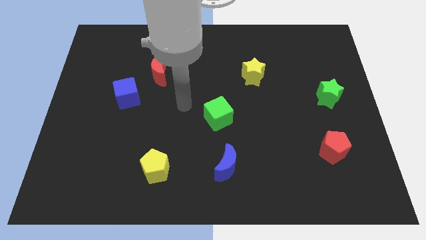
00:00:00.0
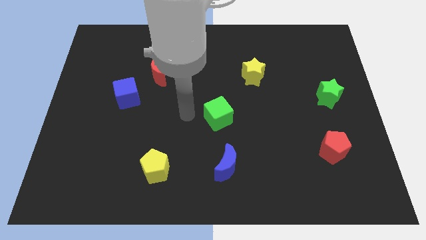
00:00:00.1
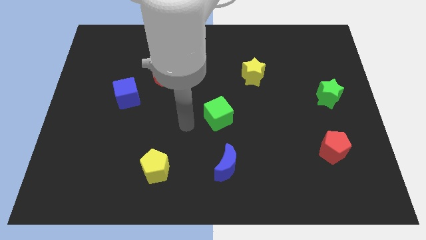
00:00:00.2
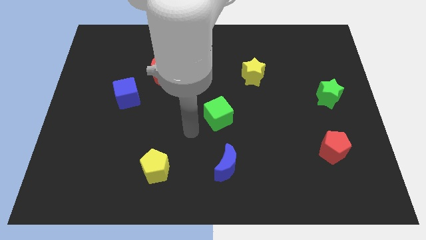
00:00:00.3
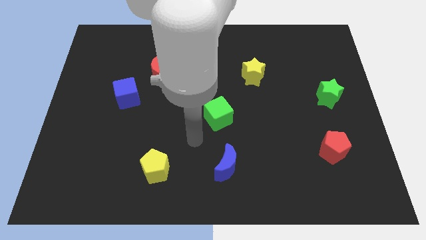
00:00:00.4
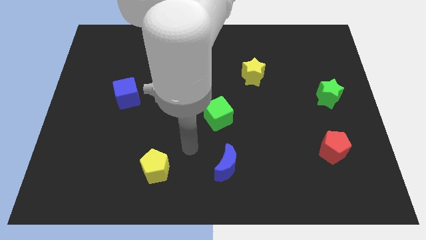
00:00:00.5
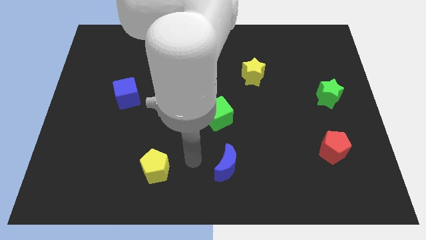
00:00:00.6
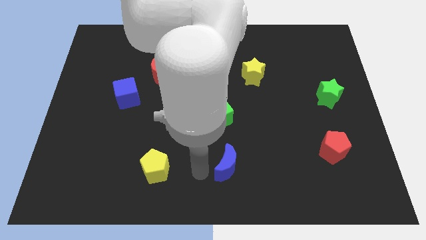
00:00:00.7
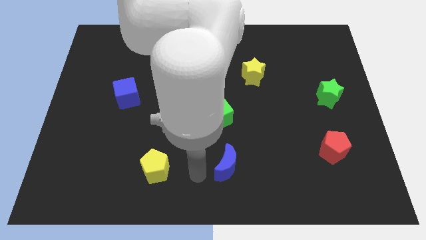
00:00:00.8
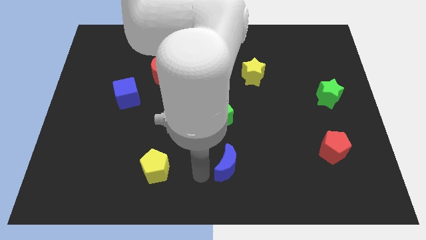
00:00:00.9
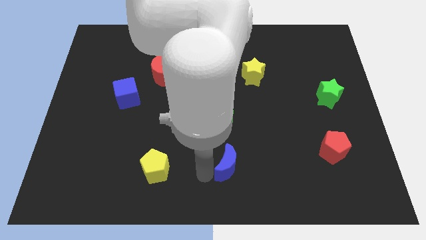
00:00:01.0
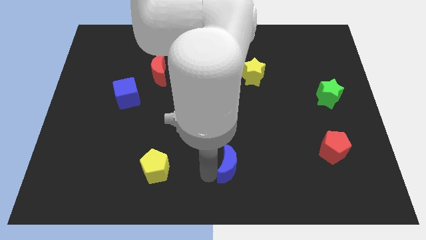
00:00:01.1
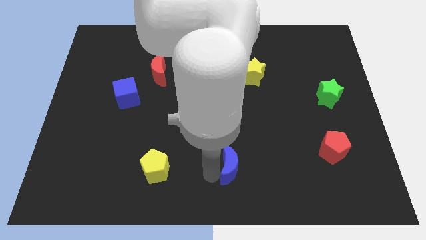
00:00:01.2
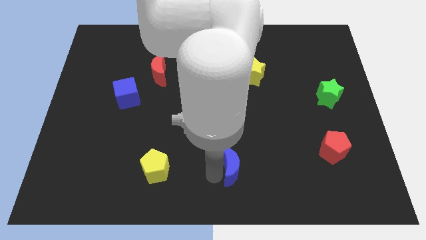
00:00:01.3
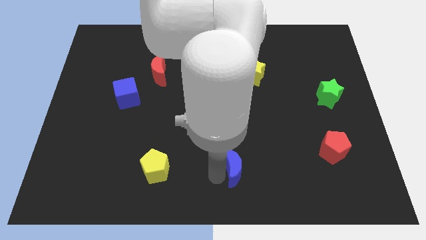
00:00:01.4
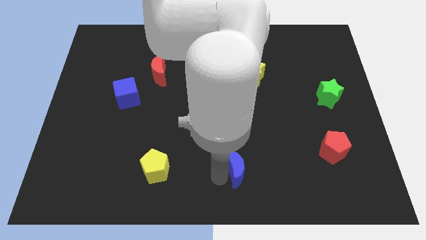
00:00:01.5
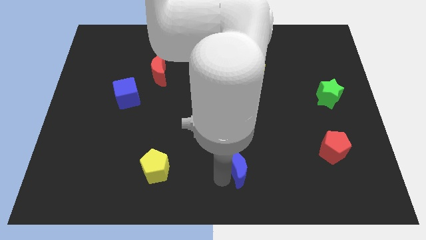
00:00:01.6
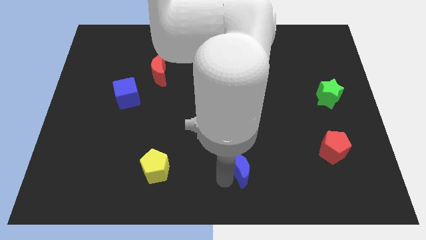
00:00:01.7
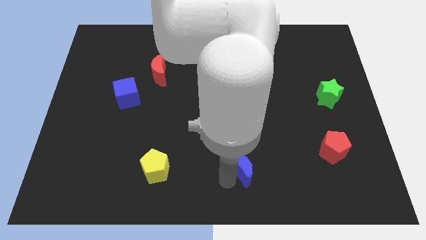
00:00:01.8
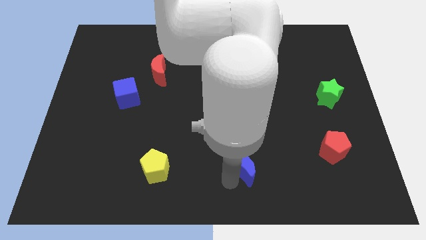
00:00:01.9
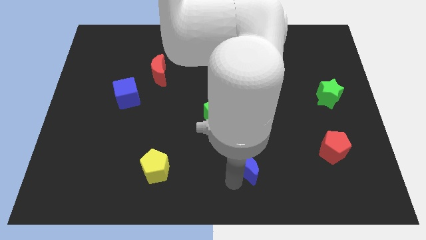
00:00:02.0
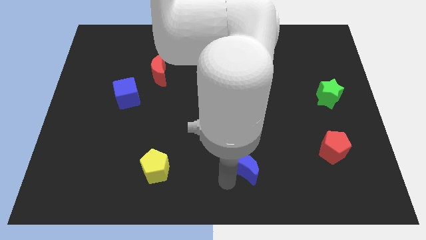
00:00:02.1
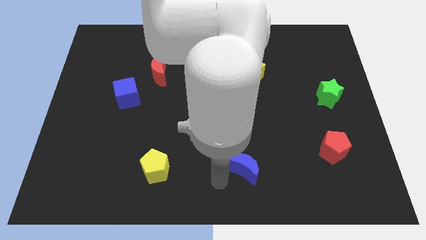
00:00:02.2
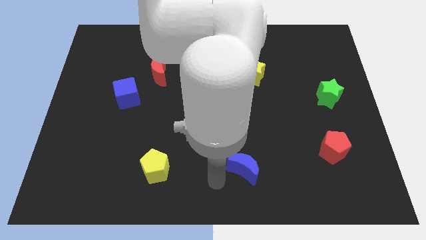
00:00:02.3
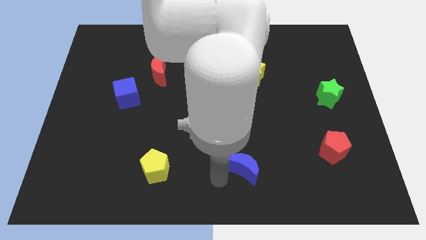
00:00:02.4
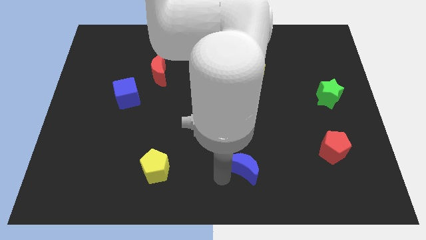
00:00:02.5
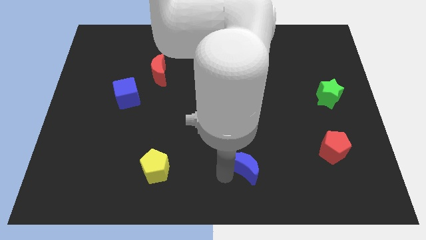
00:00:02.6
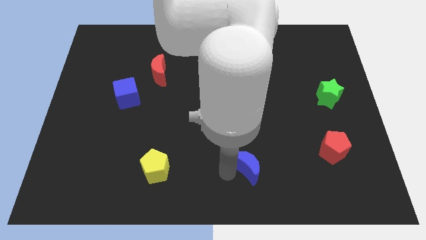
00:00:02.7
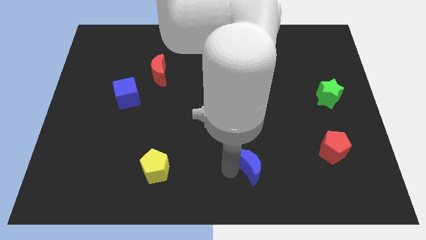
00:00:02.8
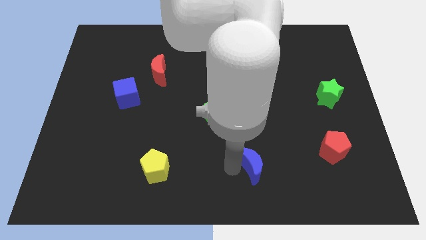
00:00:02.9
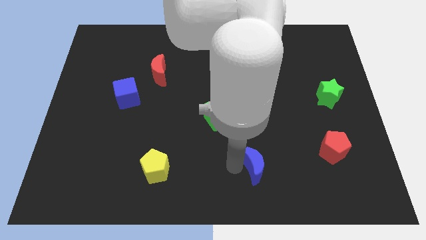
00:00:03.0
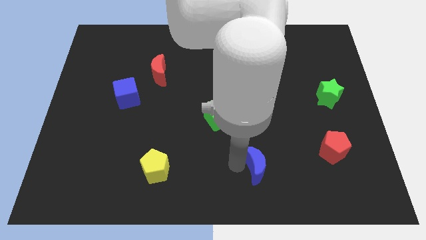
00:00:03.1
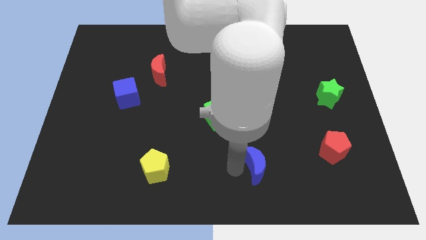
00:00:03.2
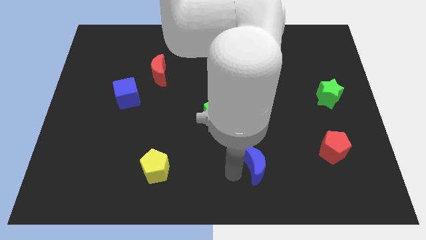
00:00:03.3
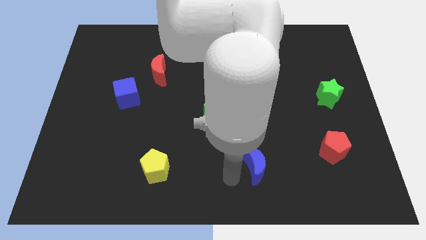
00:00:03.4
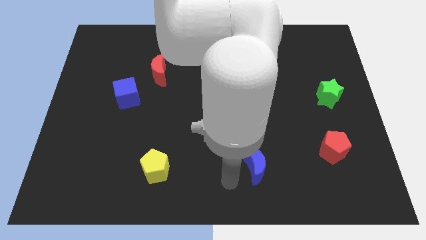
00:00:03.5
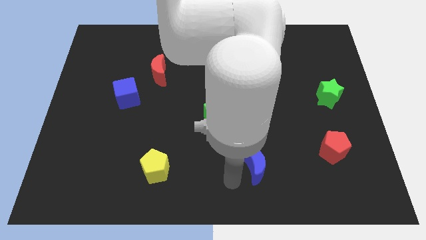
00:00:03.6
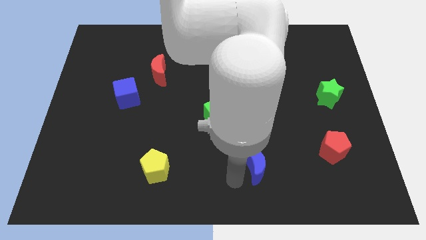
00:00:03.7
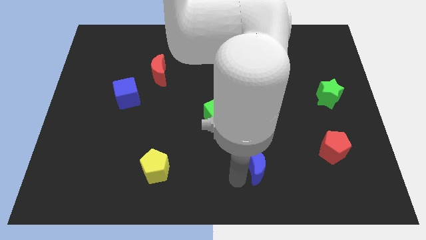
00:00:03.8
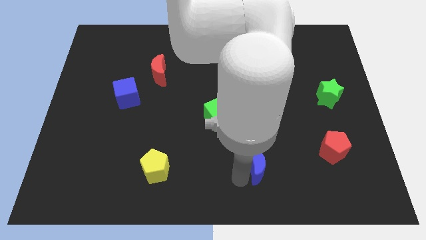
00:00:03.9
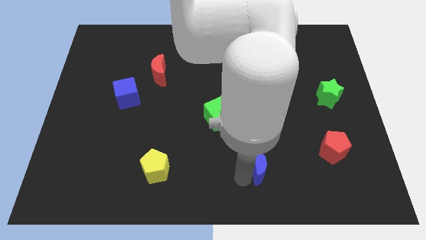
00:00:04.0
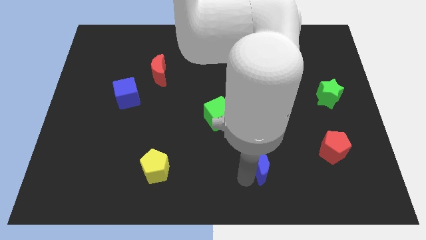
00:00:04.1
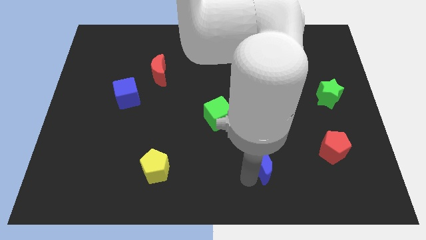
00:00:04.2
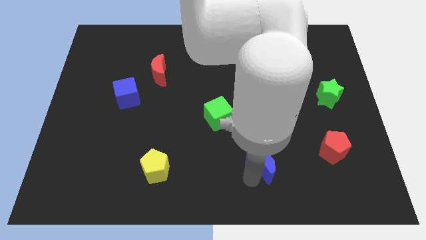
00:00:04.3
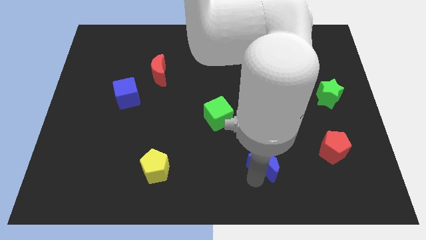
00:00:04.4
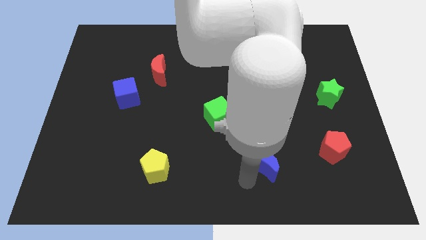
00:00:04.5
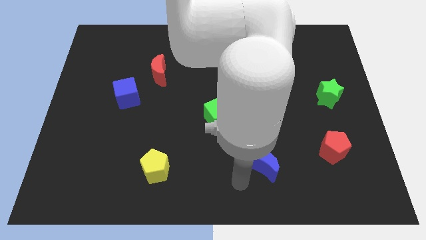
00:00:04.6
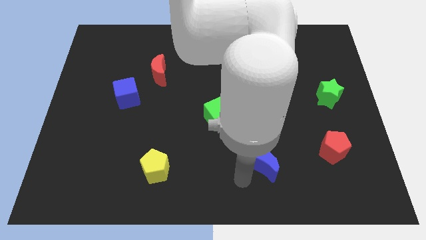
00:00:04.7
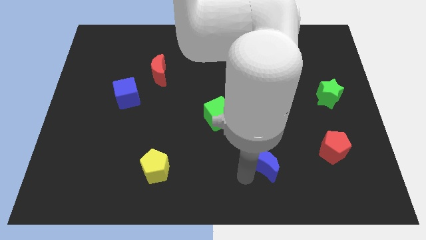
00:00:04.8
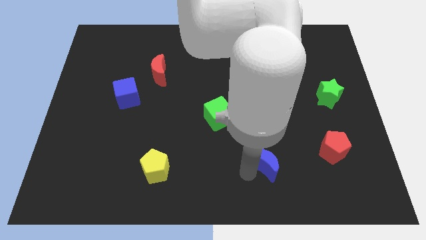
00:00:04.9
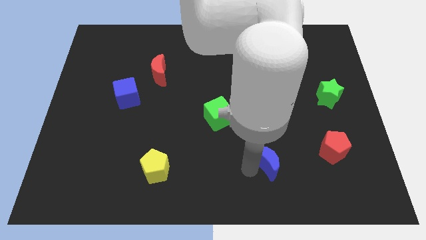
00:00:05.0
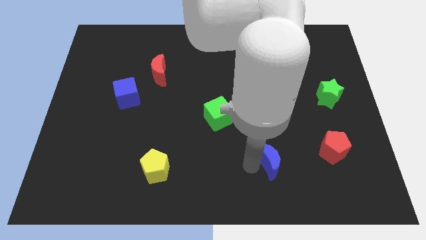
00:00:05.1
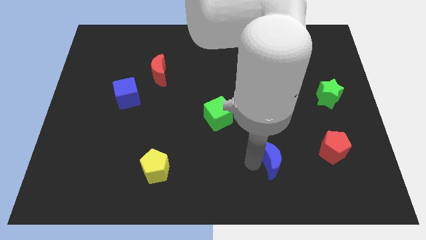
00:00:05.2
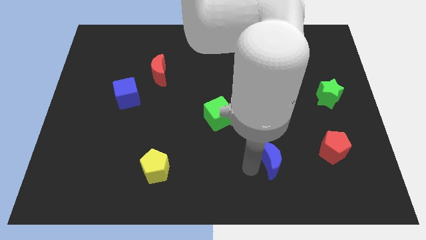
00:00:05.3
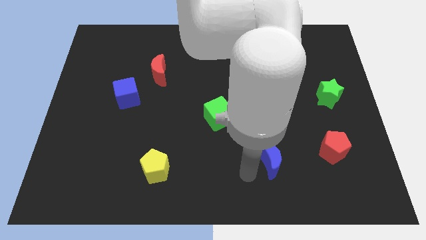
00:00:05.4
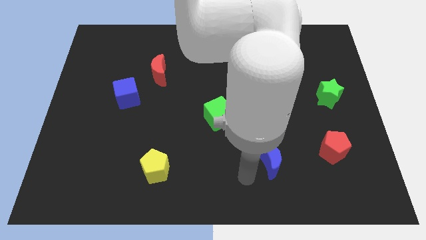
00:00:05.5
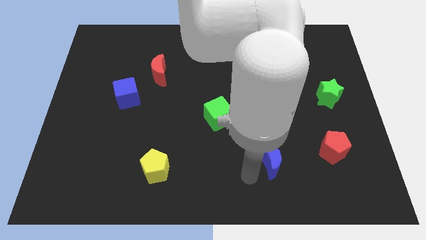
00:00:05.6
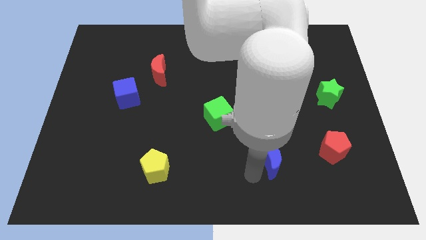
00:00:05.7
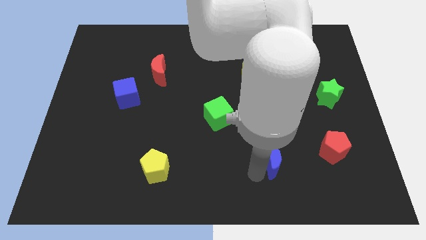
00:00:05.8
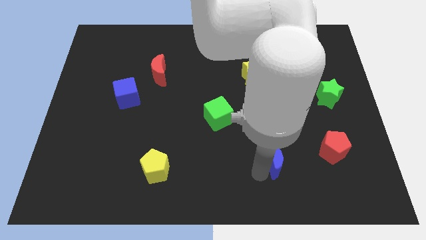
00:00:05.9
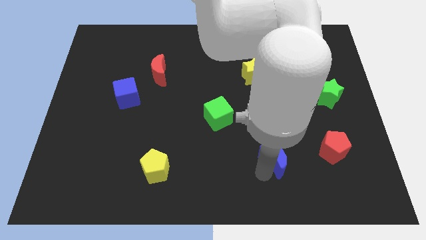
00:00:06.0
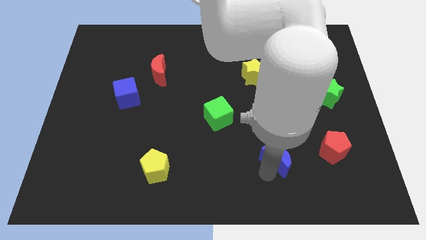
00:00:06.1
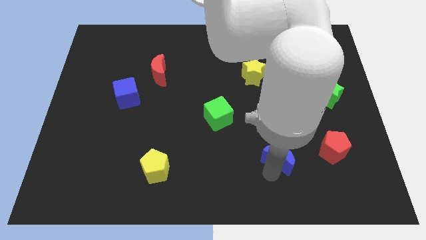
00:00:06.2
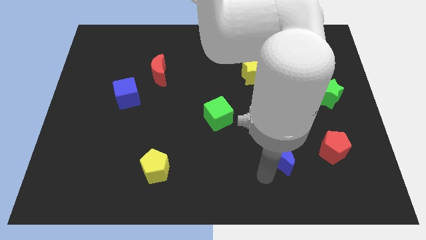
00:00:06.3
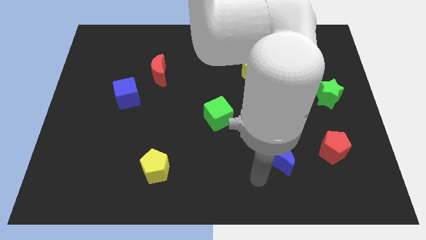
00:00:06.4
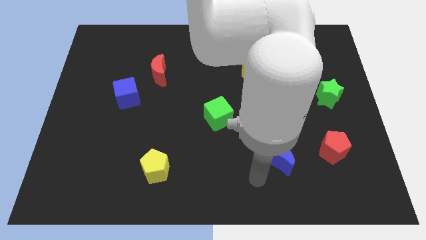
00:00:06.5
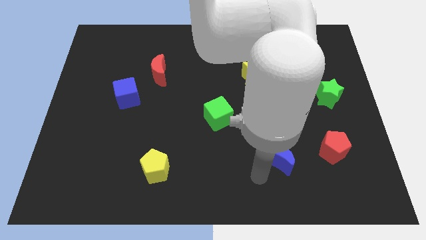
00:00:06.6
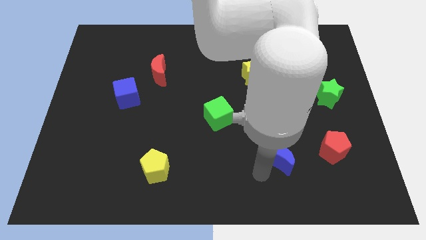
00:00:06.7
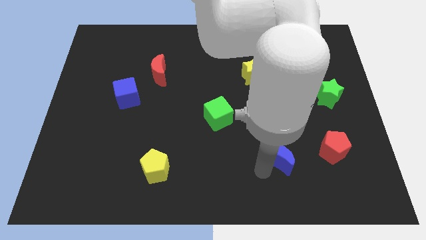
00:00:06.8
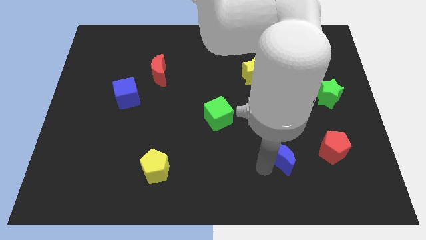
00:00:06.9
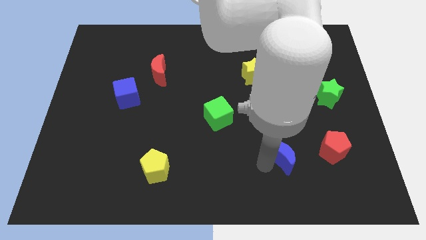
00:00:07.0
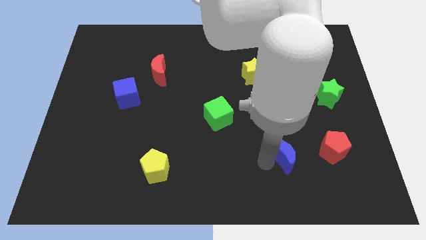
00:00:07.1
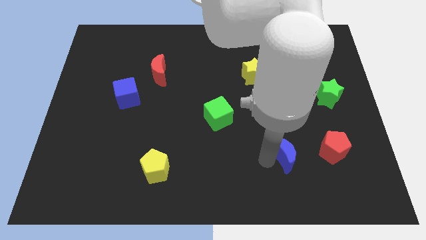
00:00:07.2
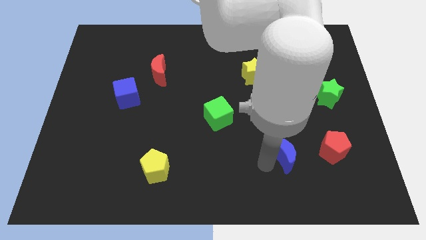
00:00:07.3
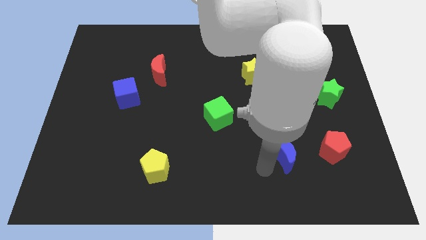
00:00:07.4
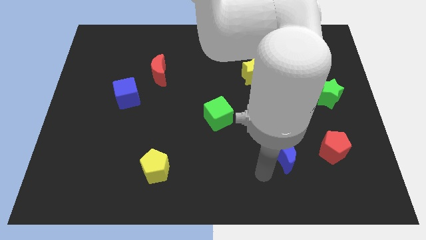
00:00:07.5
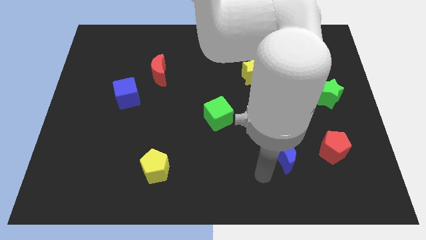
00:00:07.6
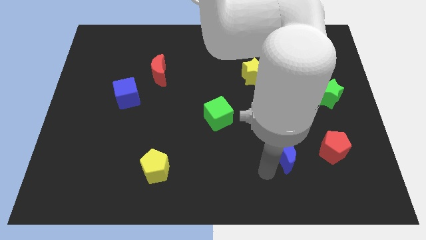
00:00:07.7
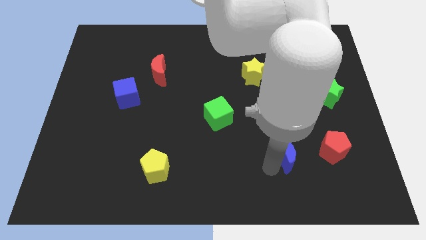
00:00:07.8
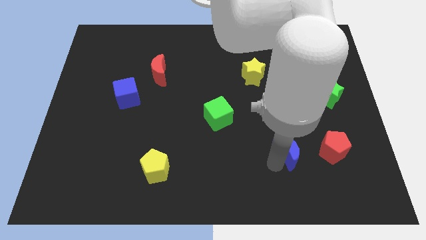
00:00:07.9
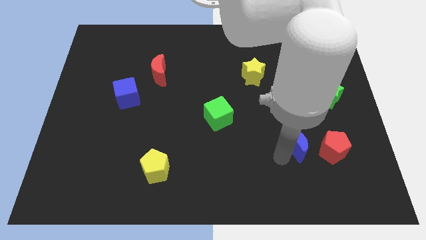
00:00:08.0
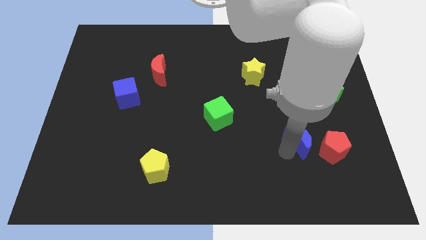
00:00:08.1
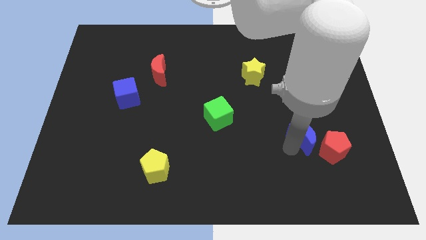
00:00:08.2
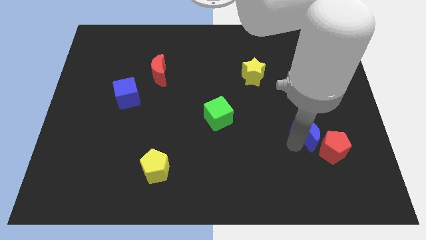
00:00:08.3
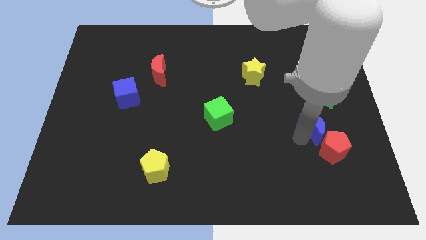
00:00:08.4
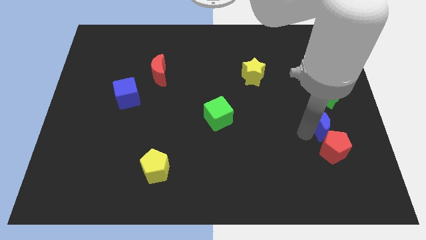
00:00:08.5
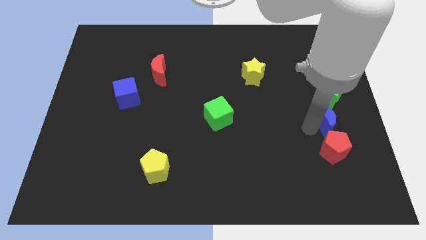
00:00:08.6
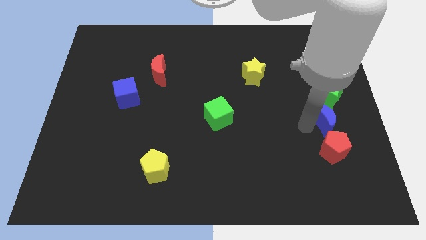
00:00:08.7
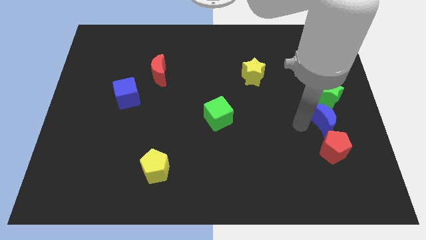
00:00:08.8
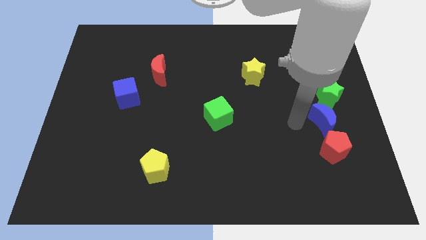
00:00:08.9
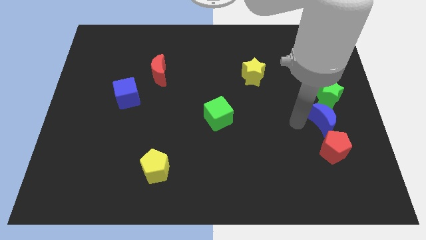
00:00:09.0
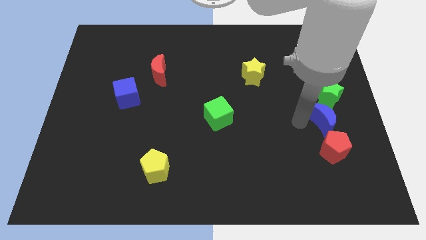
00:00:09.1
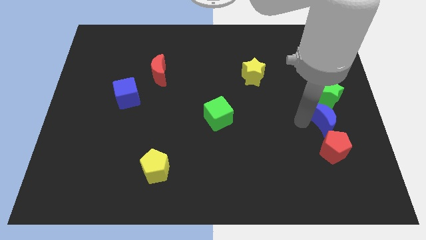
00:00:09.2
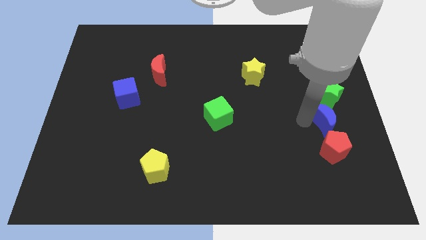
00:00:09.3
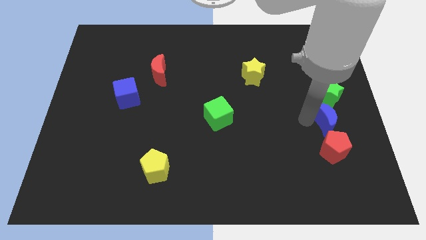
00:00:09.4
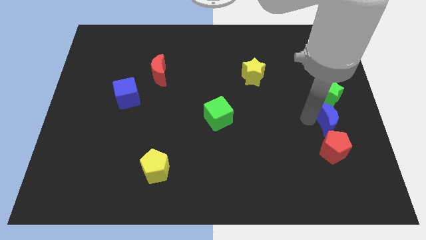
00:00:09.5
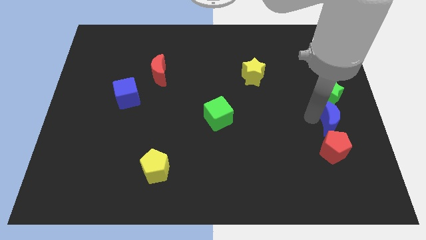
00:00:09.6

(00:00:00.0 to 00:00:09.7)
put the blue moon to the center right
